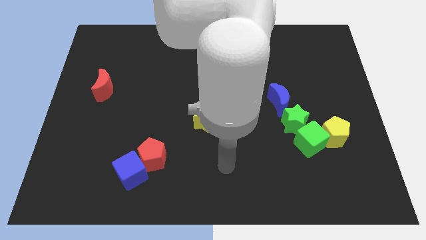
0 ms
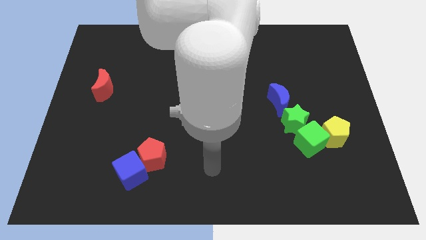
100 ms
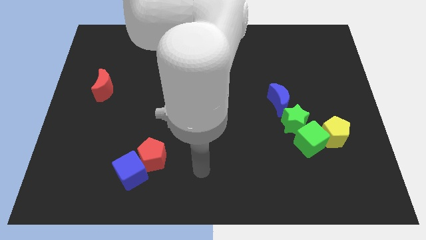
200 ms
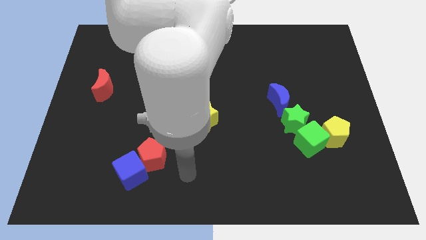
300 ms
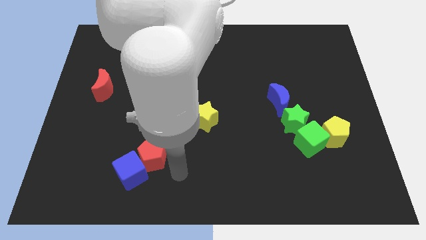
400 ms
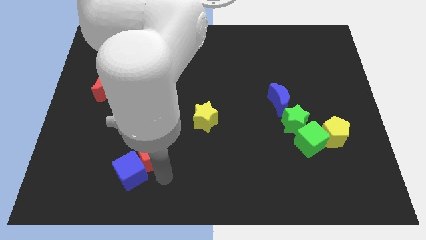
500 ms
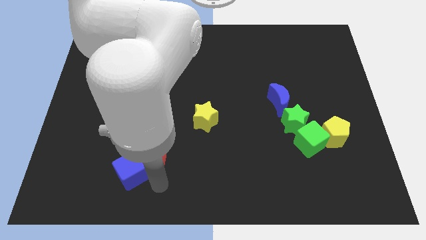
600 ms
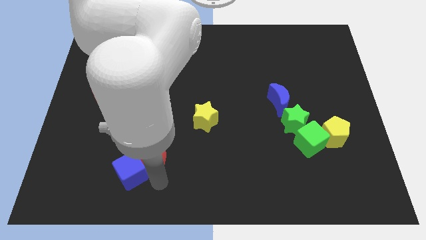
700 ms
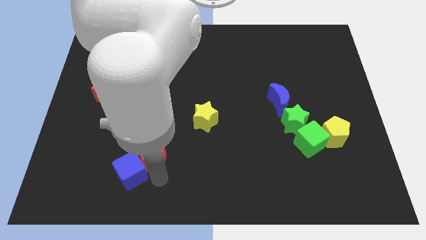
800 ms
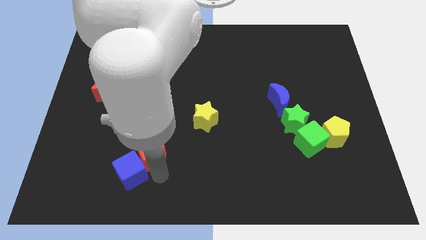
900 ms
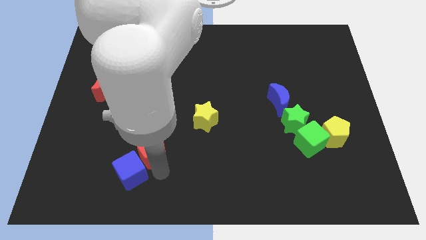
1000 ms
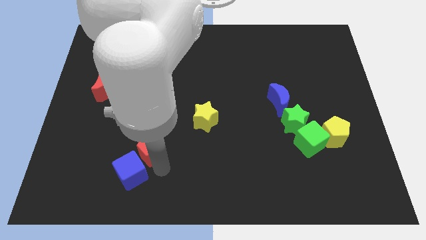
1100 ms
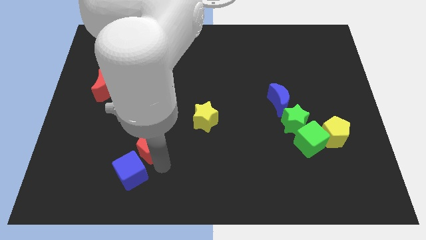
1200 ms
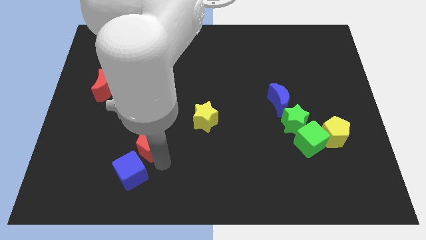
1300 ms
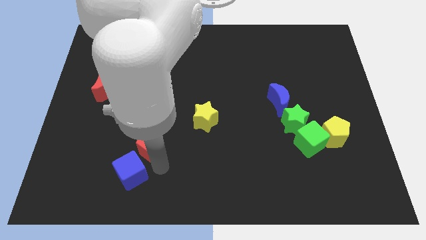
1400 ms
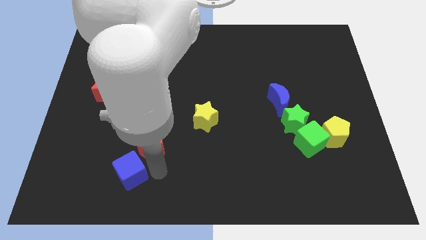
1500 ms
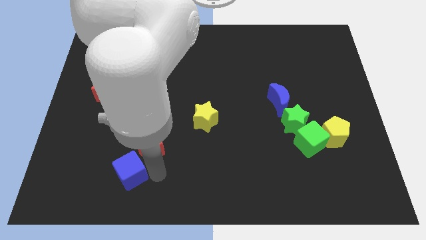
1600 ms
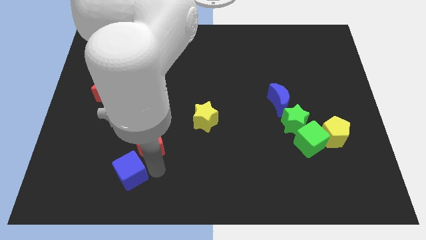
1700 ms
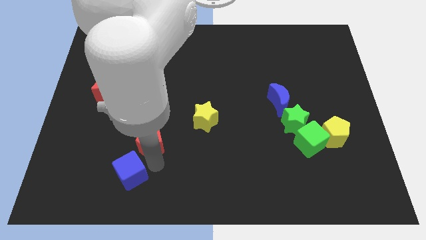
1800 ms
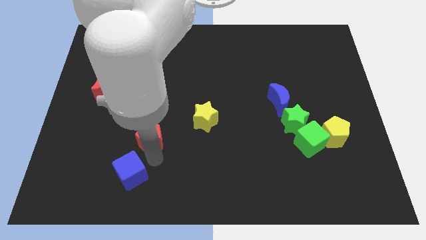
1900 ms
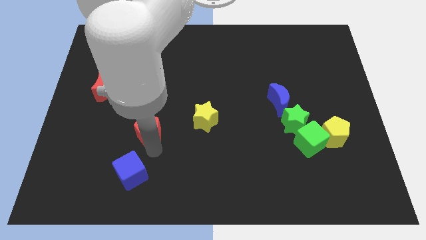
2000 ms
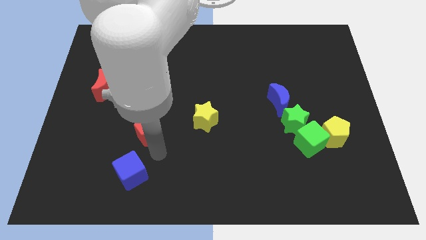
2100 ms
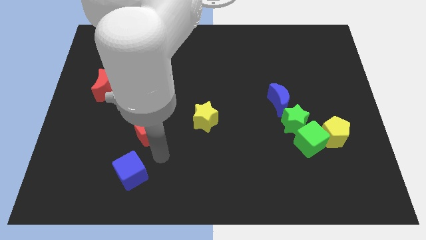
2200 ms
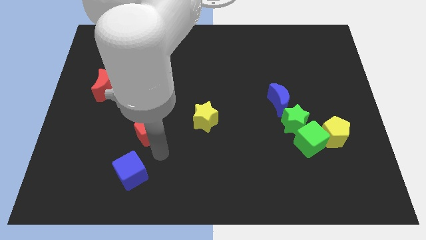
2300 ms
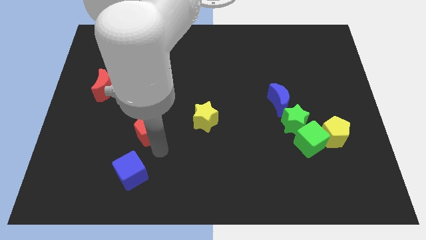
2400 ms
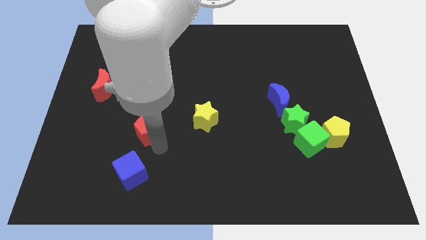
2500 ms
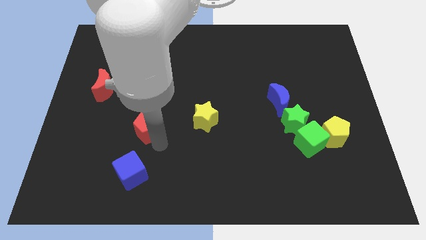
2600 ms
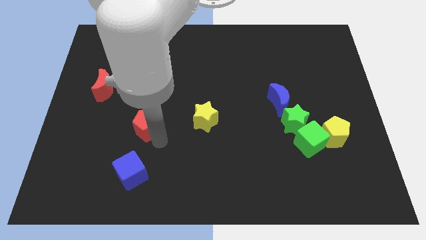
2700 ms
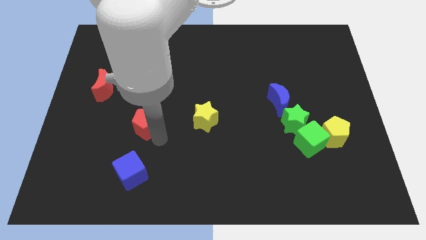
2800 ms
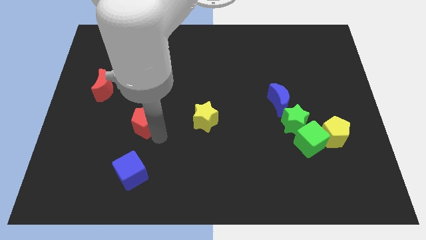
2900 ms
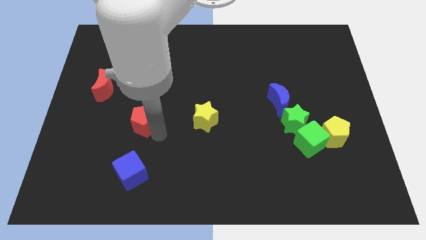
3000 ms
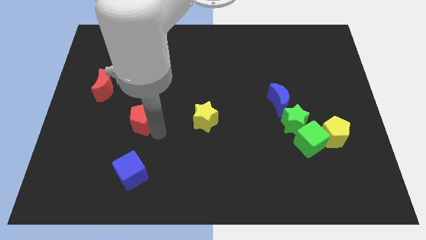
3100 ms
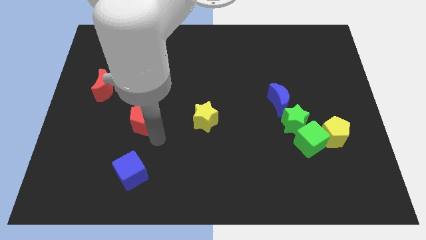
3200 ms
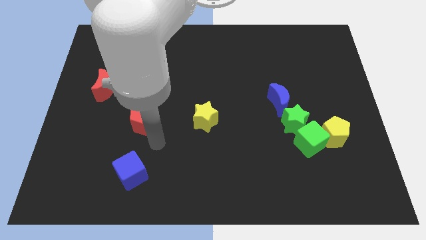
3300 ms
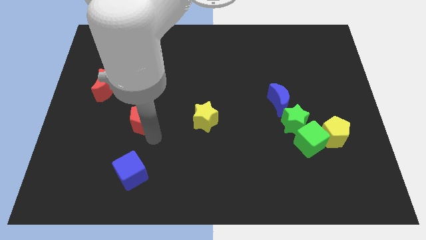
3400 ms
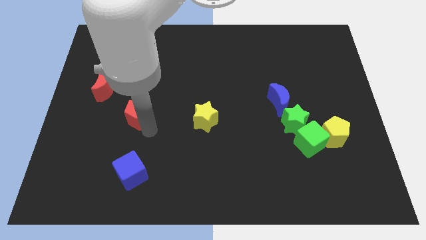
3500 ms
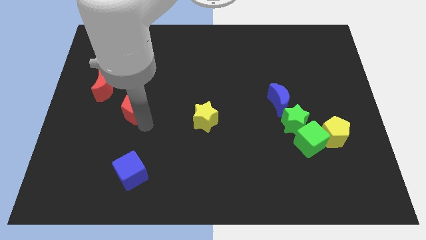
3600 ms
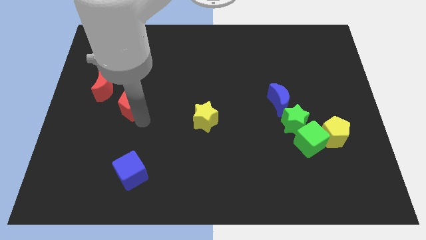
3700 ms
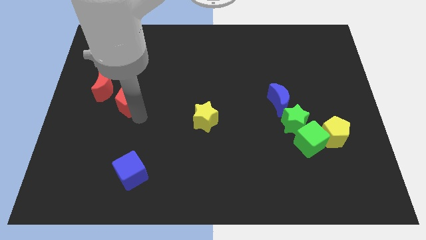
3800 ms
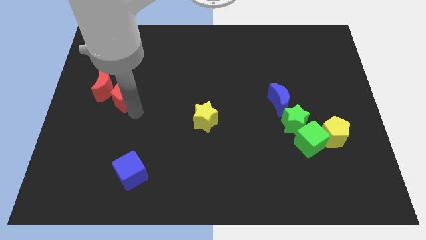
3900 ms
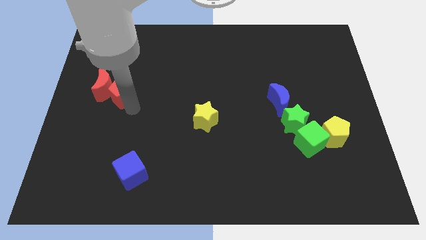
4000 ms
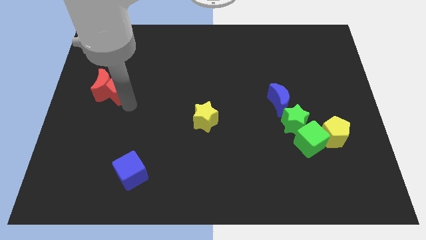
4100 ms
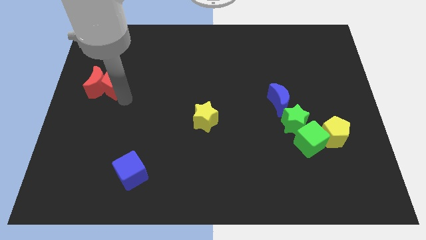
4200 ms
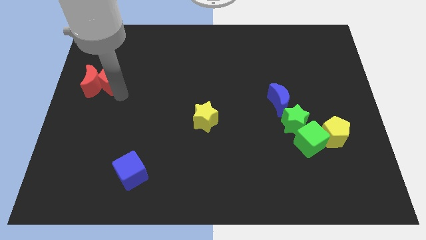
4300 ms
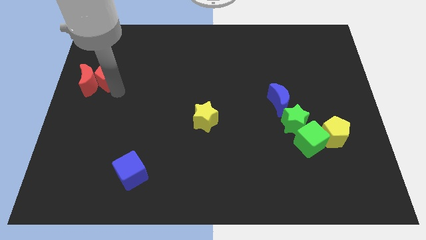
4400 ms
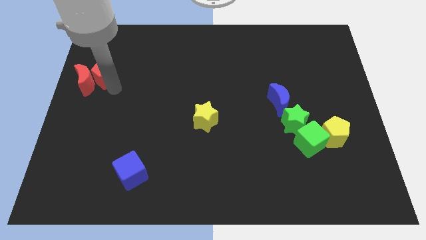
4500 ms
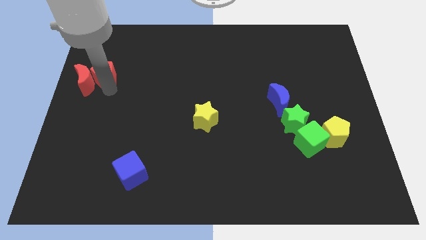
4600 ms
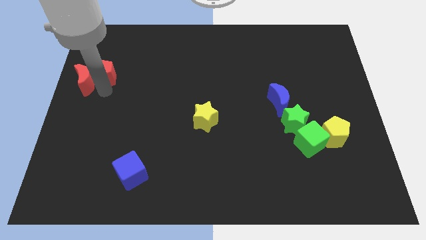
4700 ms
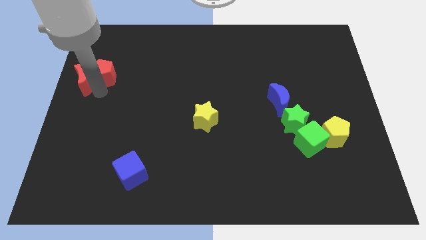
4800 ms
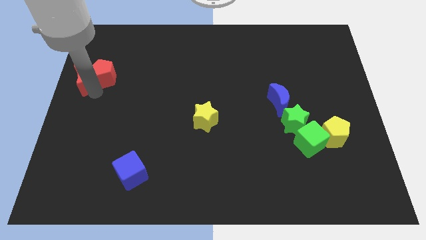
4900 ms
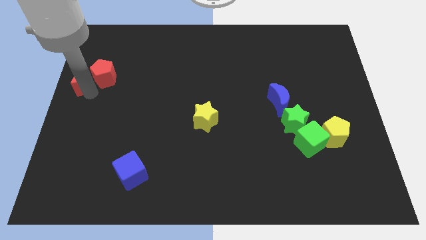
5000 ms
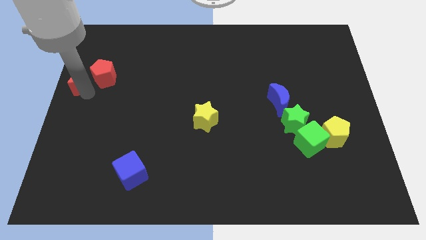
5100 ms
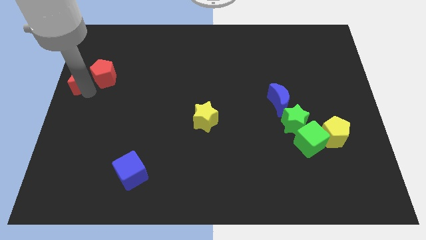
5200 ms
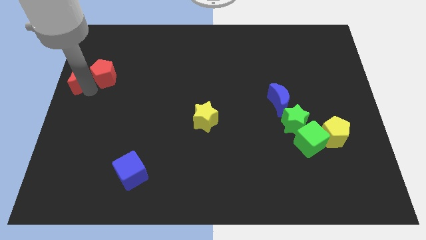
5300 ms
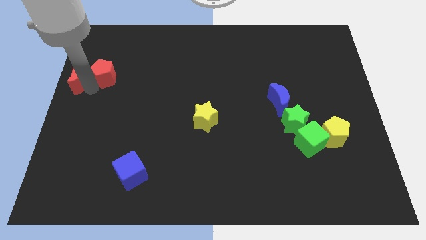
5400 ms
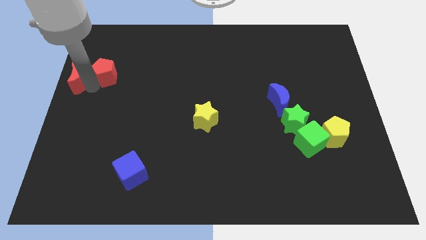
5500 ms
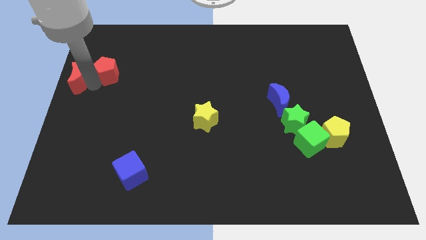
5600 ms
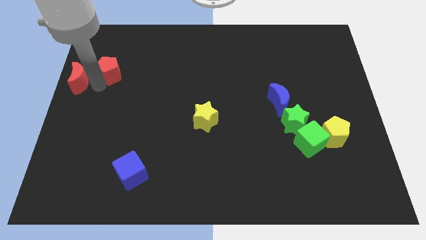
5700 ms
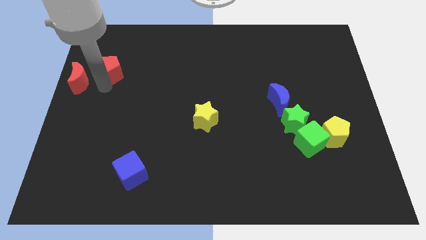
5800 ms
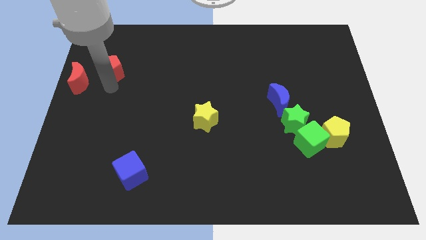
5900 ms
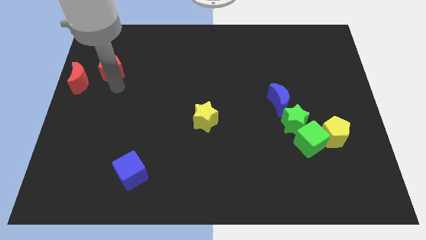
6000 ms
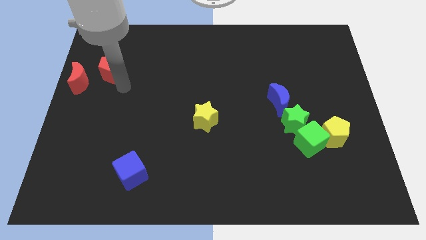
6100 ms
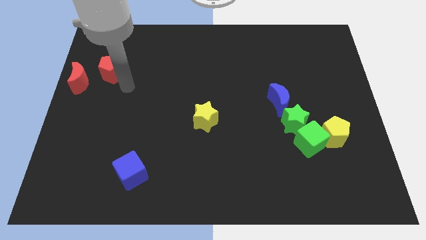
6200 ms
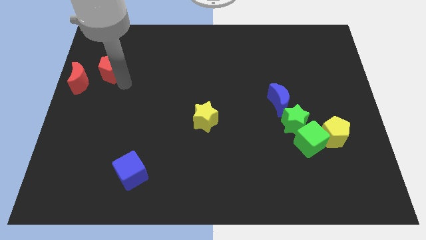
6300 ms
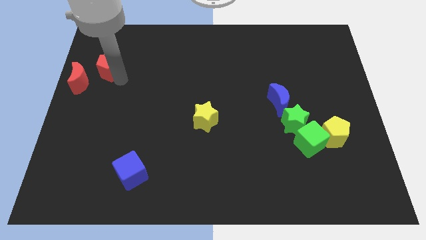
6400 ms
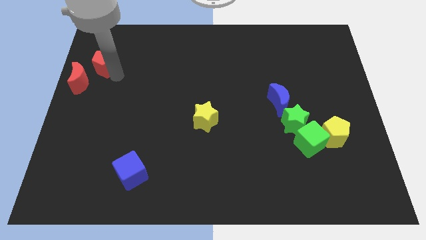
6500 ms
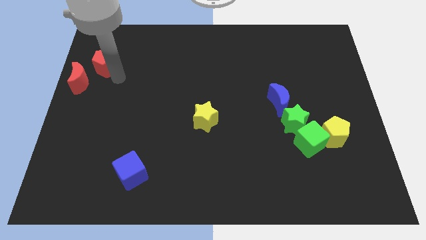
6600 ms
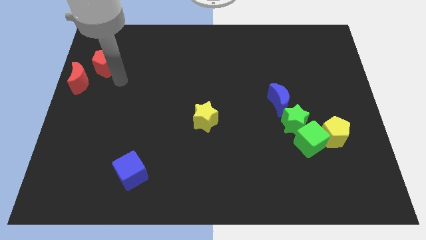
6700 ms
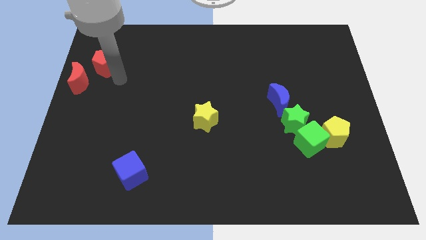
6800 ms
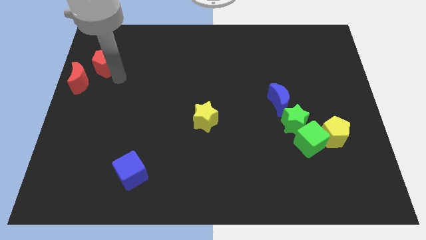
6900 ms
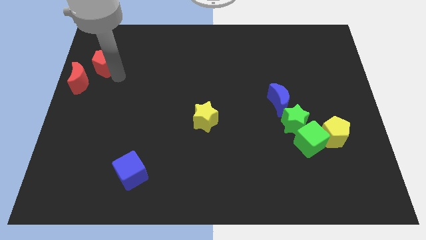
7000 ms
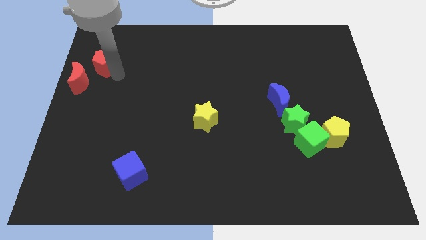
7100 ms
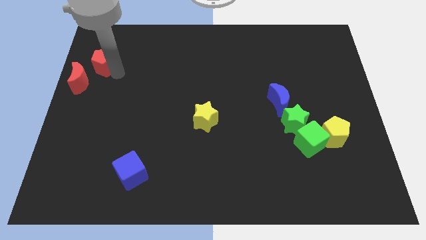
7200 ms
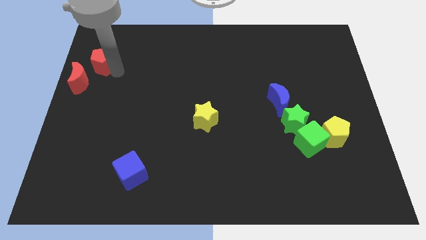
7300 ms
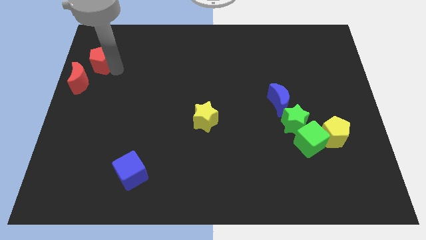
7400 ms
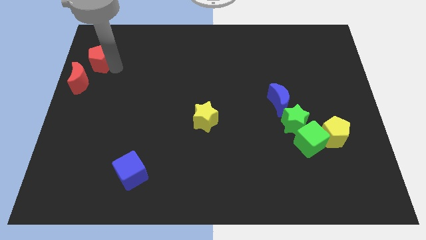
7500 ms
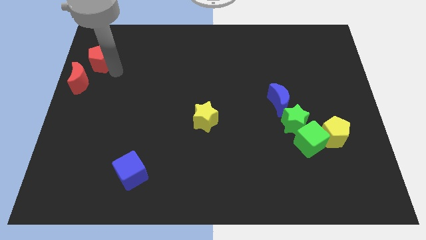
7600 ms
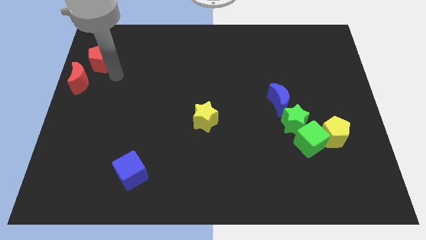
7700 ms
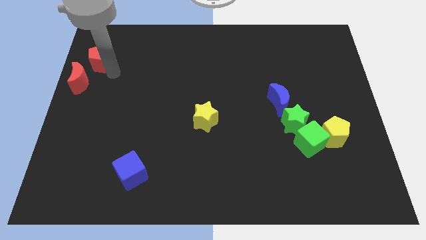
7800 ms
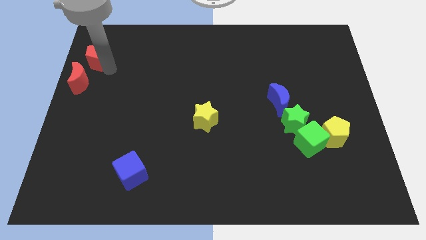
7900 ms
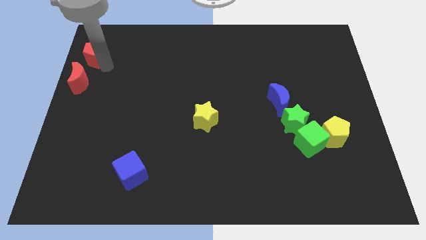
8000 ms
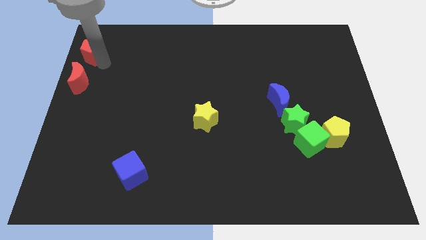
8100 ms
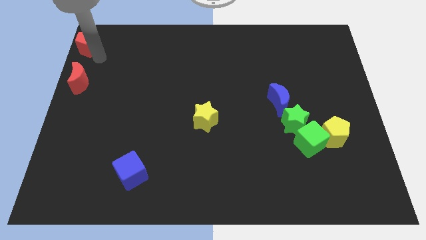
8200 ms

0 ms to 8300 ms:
slide the red pentagon to the top left of the board
